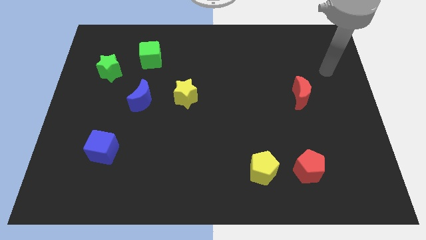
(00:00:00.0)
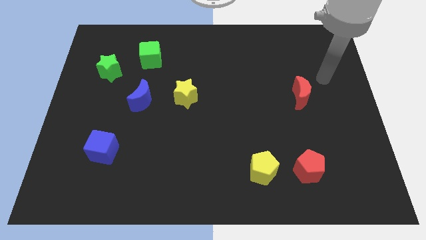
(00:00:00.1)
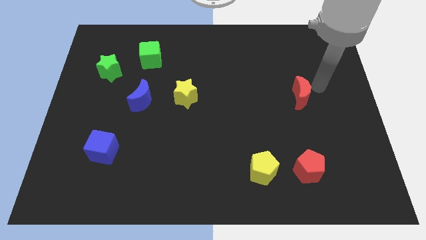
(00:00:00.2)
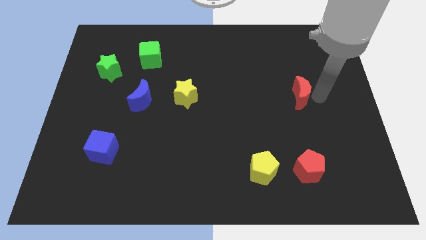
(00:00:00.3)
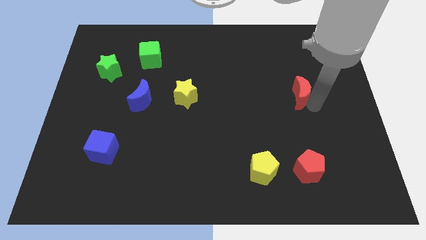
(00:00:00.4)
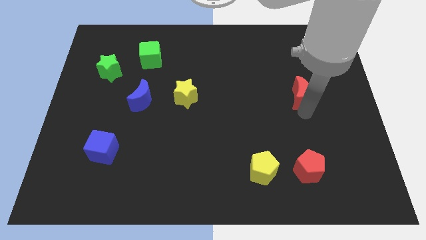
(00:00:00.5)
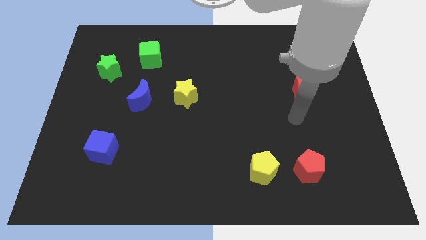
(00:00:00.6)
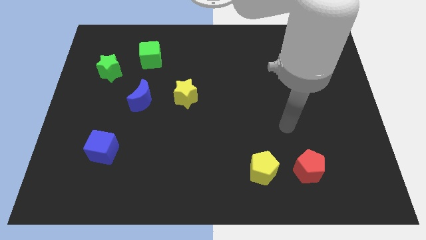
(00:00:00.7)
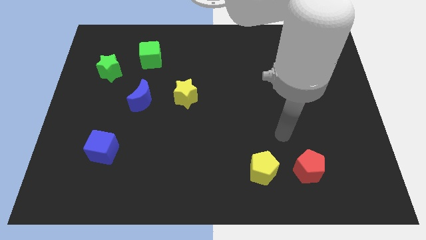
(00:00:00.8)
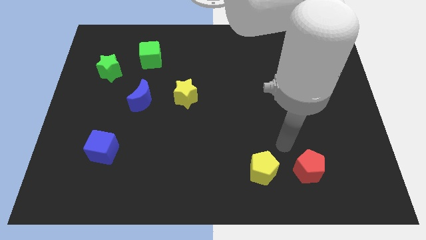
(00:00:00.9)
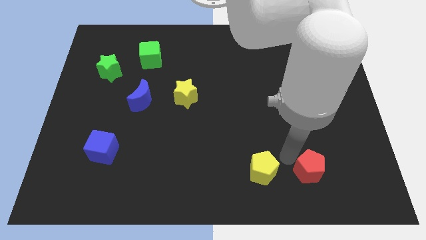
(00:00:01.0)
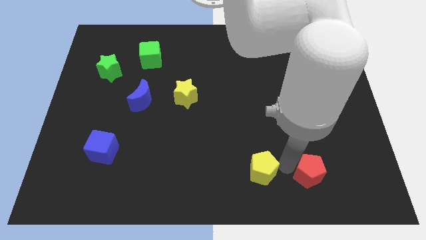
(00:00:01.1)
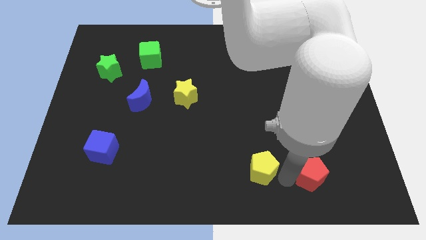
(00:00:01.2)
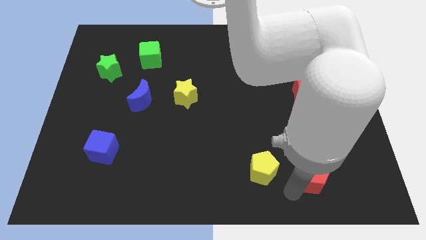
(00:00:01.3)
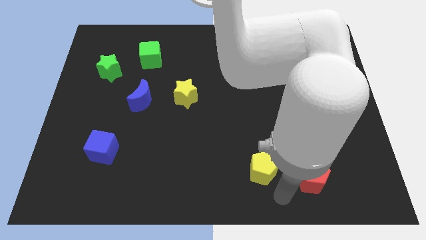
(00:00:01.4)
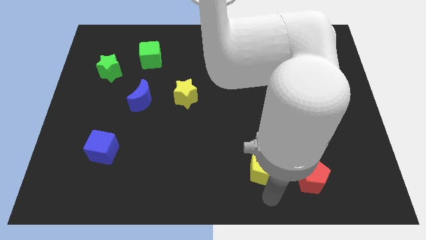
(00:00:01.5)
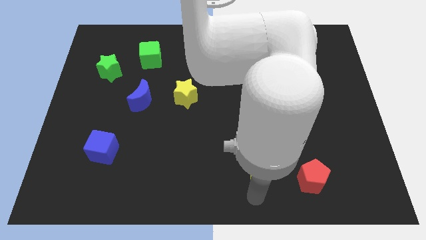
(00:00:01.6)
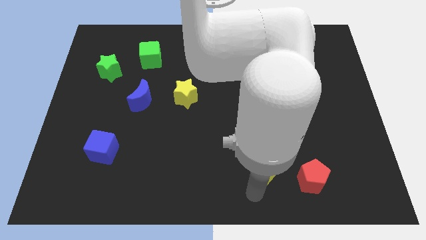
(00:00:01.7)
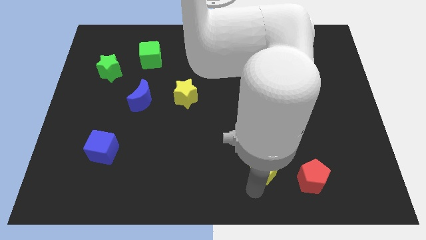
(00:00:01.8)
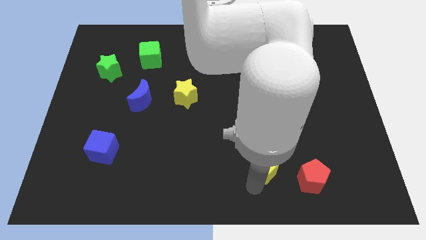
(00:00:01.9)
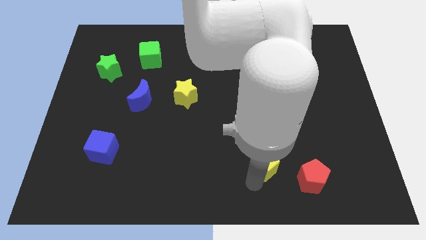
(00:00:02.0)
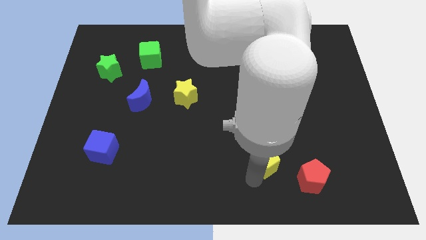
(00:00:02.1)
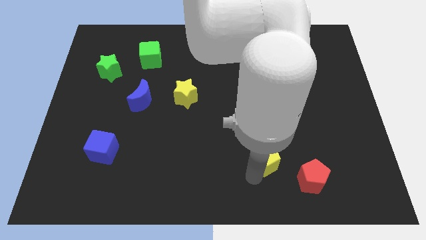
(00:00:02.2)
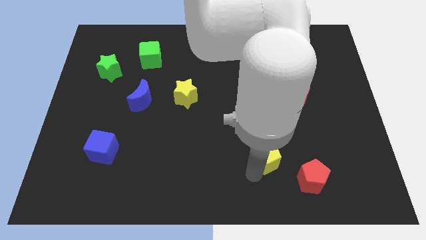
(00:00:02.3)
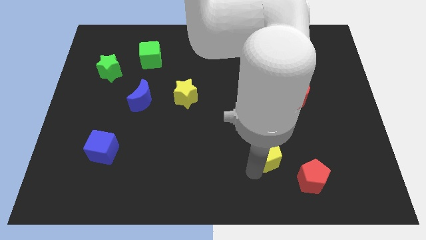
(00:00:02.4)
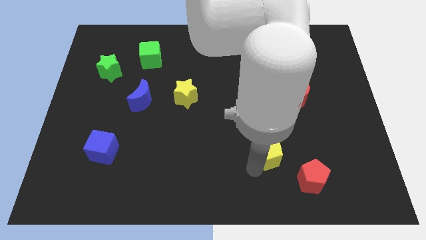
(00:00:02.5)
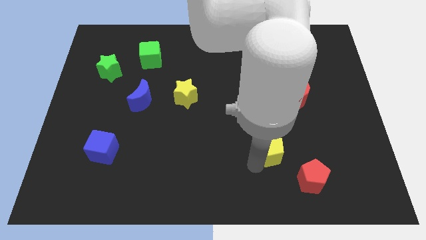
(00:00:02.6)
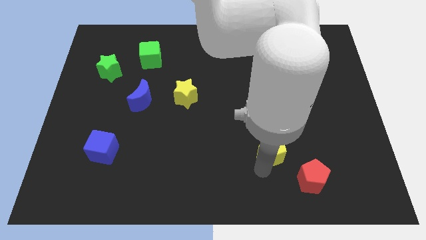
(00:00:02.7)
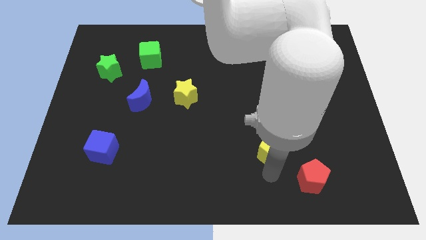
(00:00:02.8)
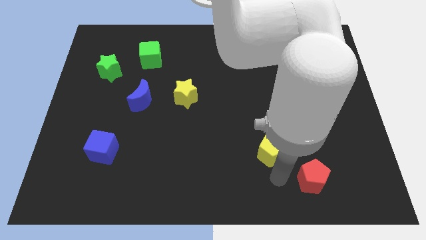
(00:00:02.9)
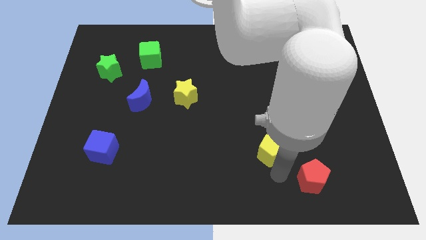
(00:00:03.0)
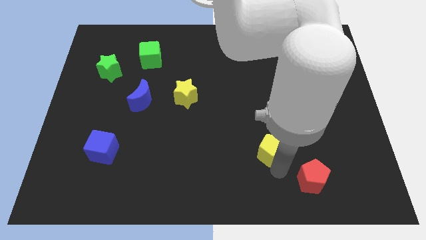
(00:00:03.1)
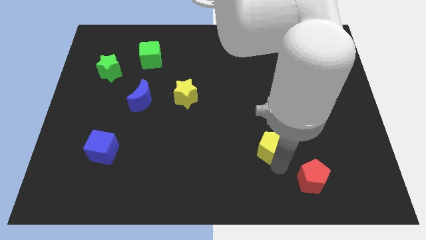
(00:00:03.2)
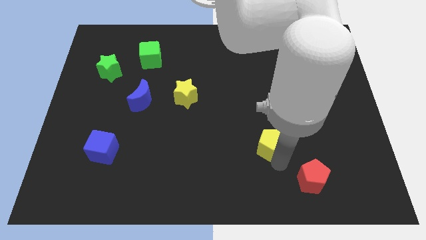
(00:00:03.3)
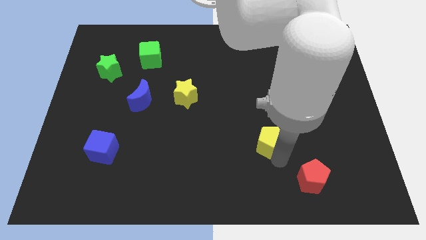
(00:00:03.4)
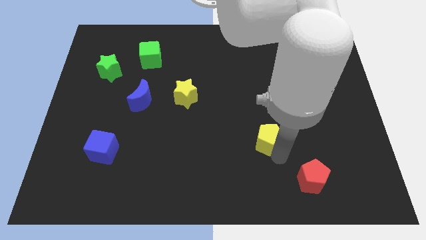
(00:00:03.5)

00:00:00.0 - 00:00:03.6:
move the yellow pentagon a little upwards

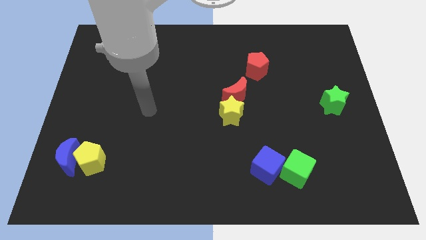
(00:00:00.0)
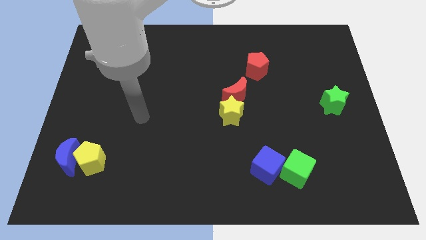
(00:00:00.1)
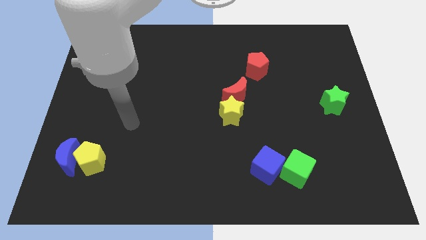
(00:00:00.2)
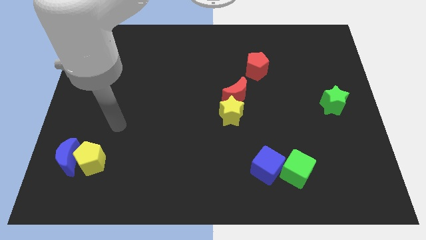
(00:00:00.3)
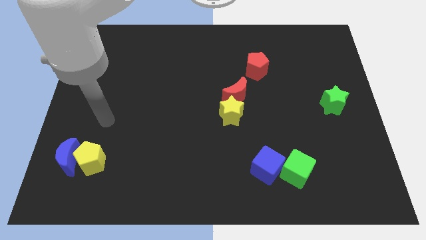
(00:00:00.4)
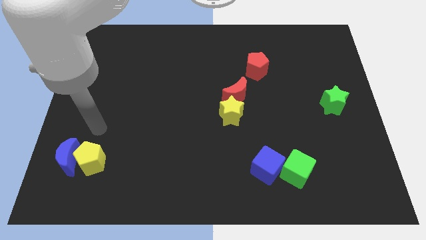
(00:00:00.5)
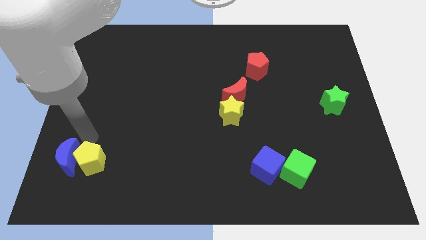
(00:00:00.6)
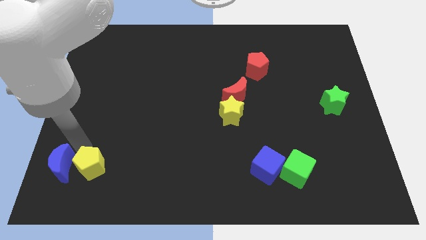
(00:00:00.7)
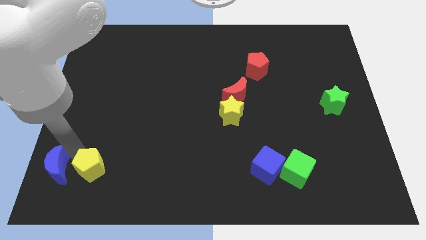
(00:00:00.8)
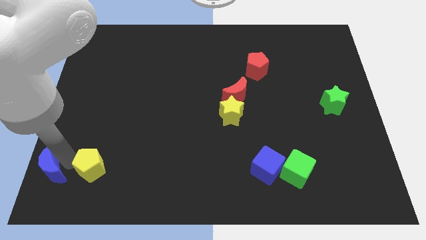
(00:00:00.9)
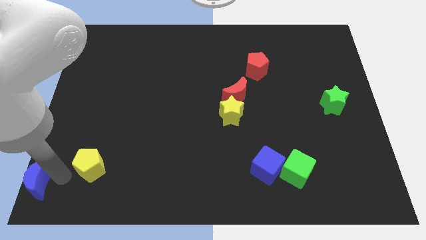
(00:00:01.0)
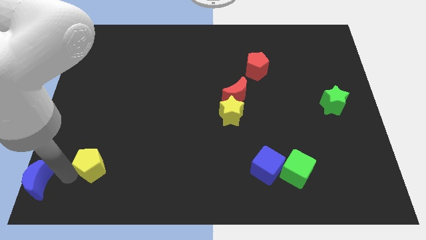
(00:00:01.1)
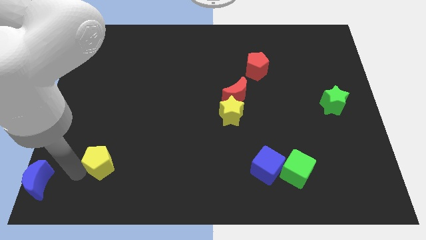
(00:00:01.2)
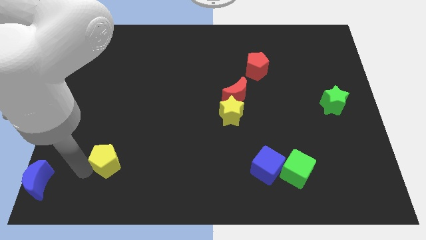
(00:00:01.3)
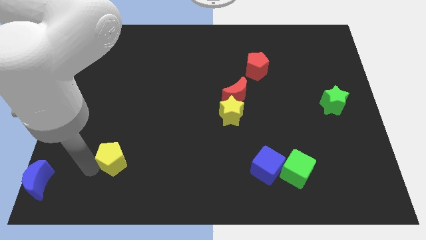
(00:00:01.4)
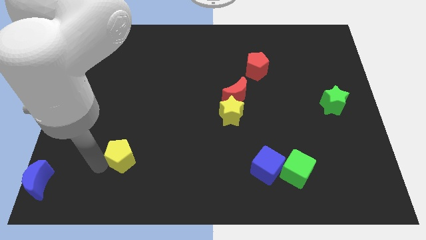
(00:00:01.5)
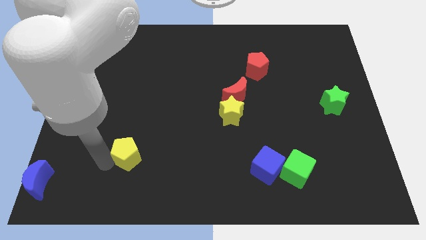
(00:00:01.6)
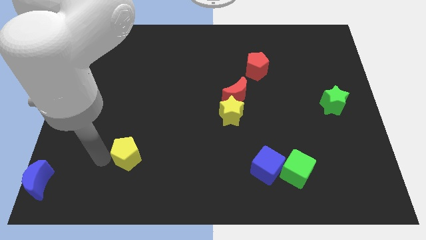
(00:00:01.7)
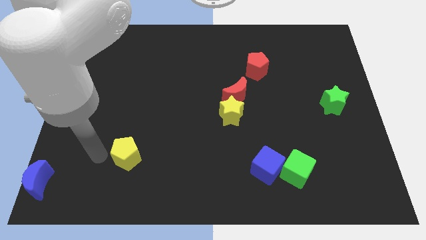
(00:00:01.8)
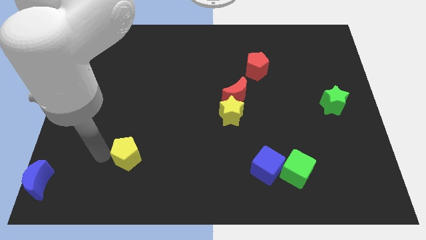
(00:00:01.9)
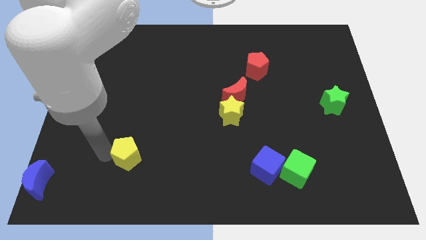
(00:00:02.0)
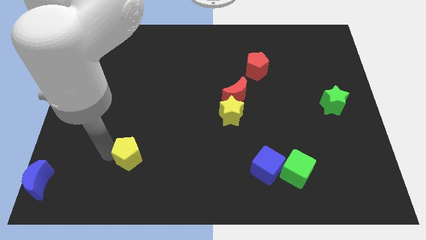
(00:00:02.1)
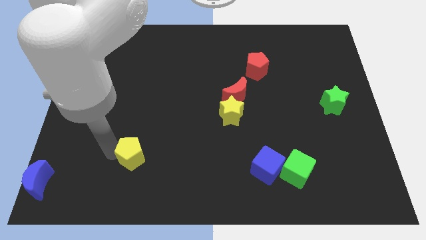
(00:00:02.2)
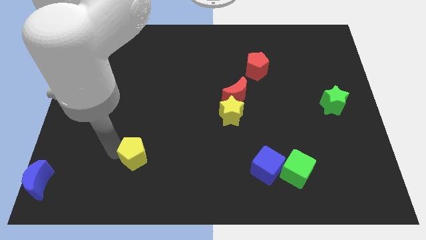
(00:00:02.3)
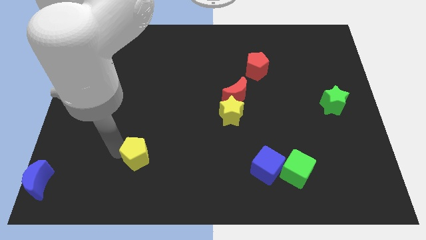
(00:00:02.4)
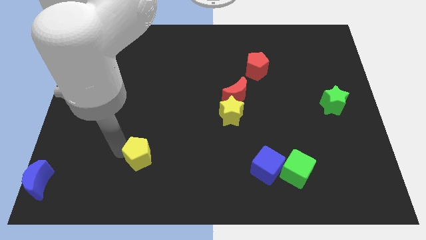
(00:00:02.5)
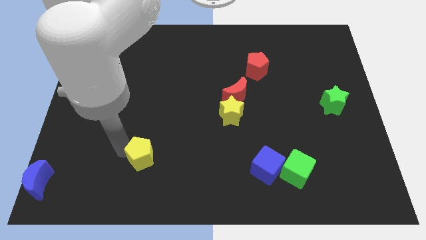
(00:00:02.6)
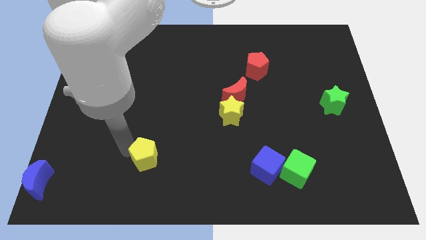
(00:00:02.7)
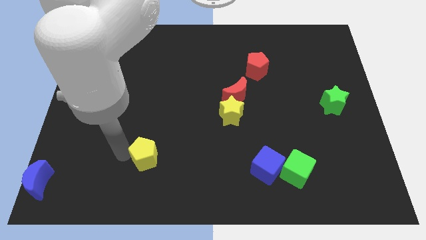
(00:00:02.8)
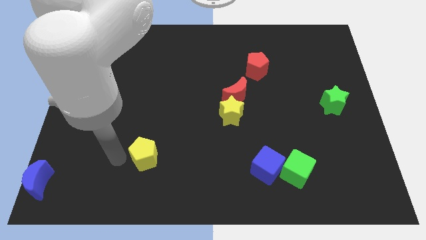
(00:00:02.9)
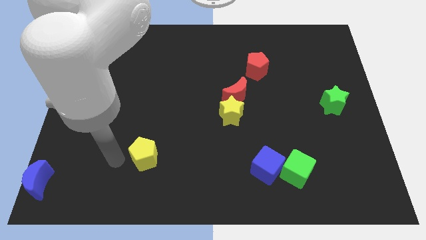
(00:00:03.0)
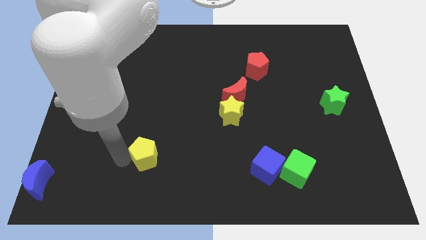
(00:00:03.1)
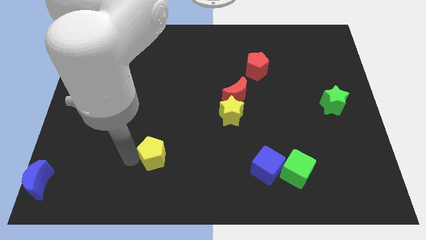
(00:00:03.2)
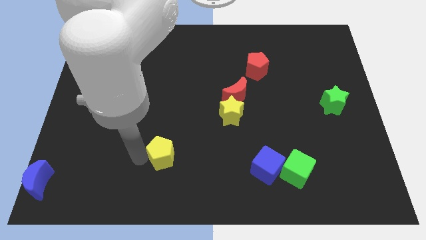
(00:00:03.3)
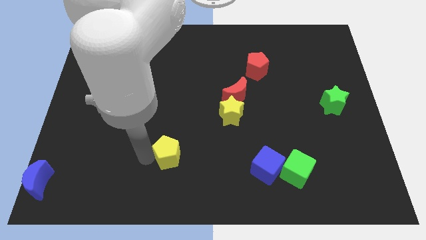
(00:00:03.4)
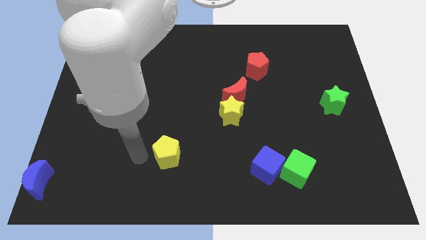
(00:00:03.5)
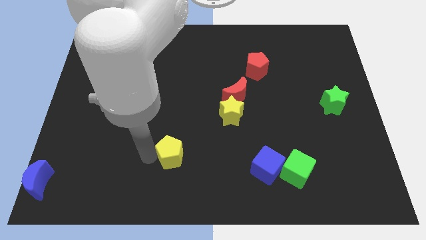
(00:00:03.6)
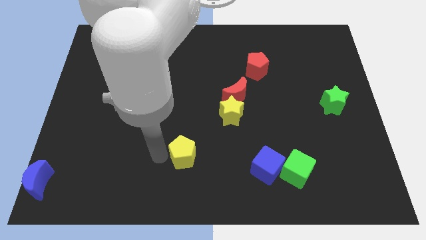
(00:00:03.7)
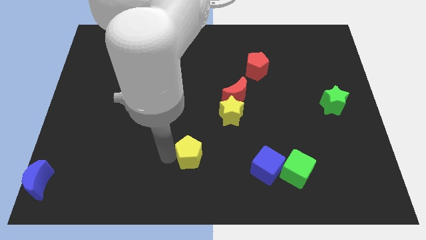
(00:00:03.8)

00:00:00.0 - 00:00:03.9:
push the yellow pentagon right

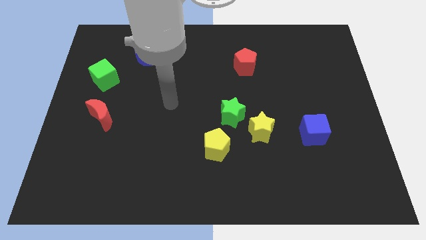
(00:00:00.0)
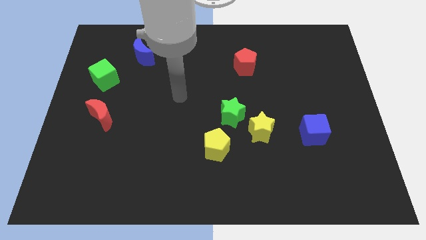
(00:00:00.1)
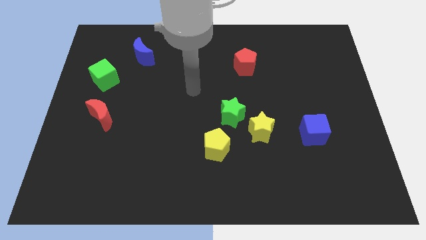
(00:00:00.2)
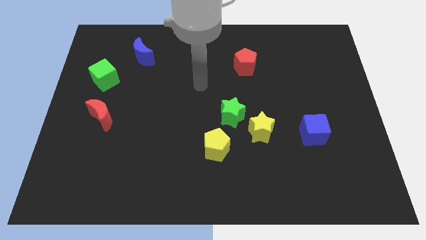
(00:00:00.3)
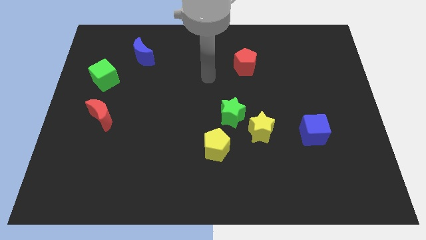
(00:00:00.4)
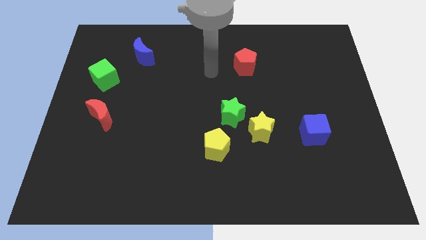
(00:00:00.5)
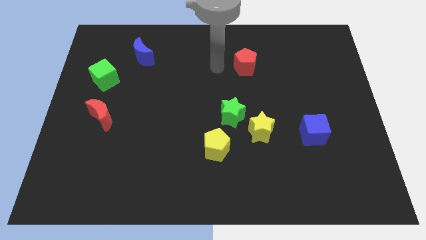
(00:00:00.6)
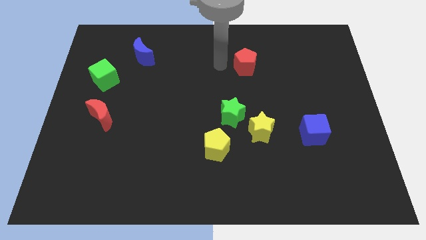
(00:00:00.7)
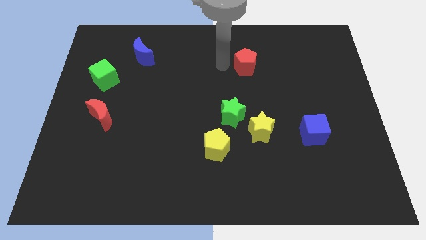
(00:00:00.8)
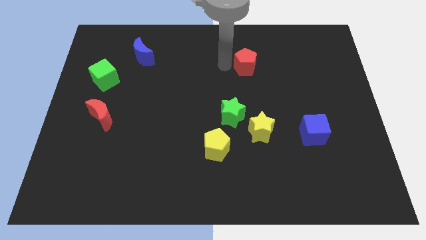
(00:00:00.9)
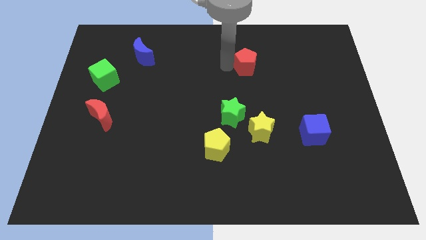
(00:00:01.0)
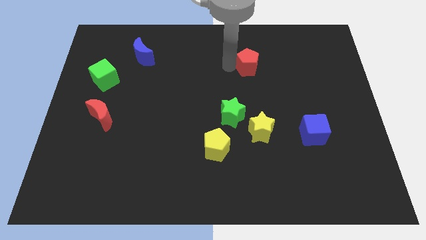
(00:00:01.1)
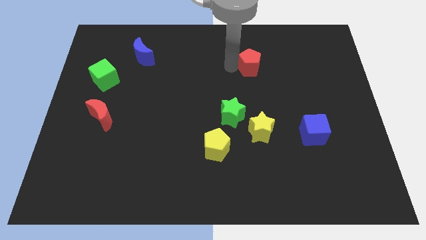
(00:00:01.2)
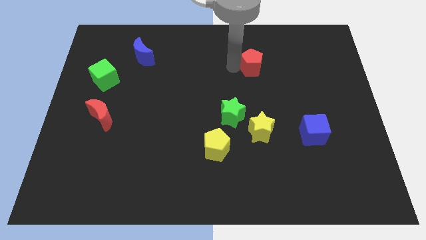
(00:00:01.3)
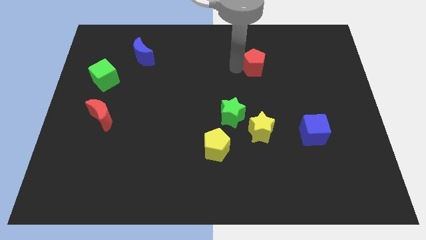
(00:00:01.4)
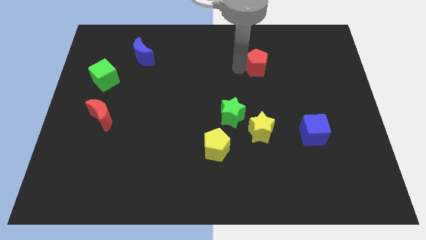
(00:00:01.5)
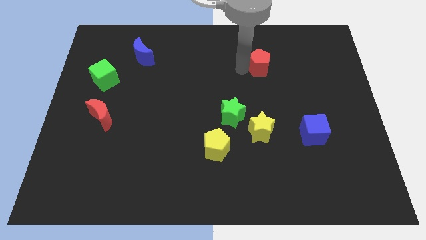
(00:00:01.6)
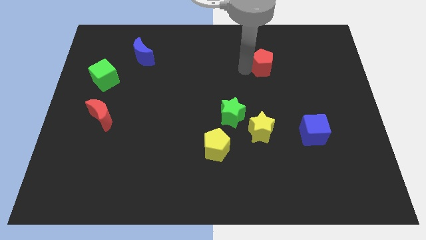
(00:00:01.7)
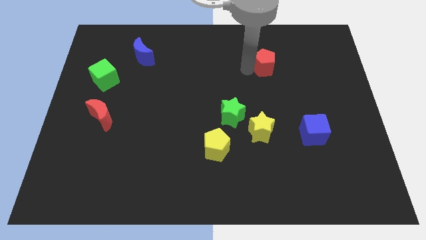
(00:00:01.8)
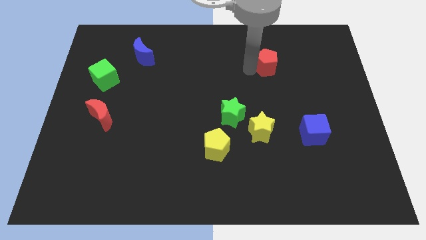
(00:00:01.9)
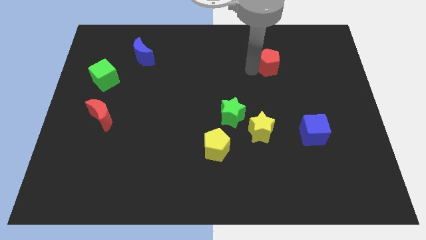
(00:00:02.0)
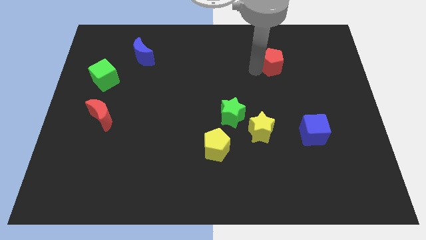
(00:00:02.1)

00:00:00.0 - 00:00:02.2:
push the red pentagon to the right a little
